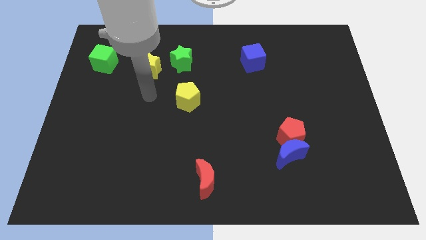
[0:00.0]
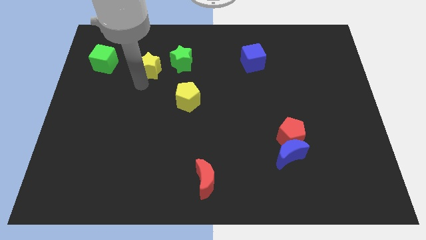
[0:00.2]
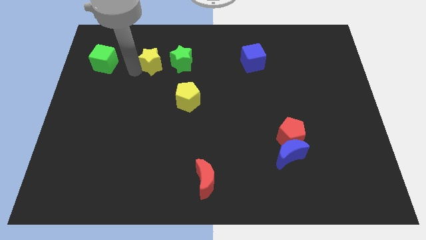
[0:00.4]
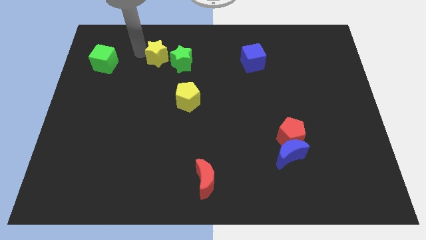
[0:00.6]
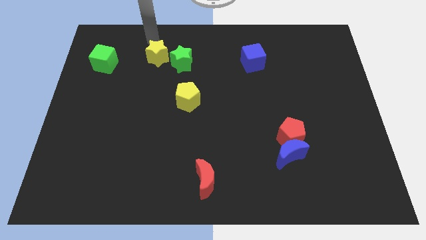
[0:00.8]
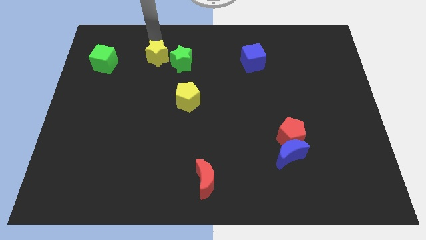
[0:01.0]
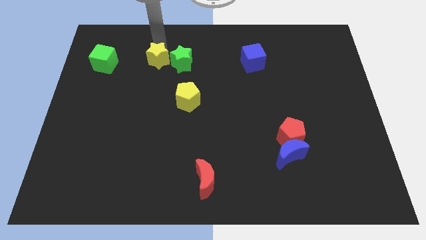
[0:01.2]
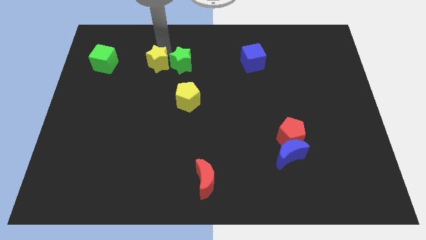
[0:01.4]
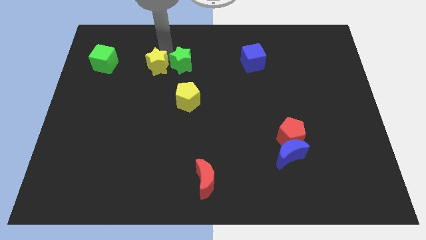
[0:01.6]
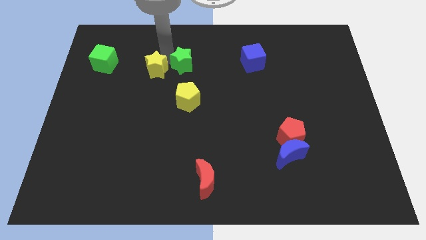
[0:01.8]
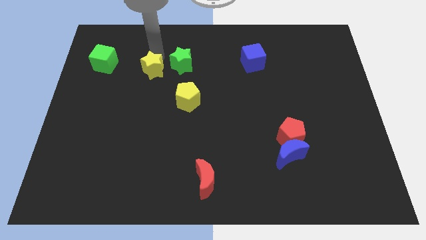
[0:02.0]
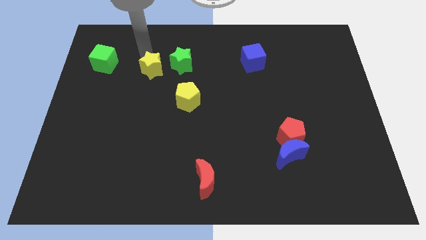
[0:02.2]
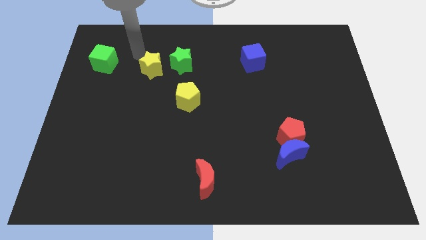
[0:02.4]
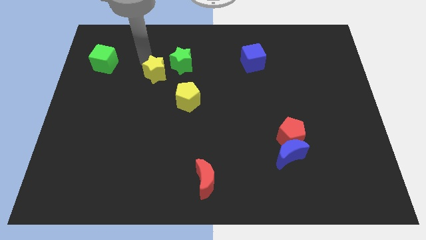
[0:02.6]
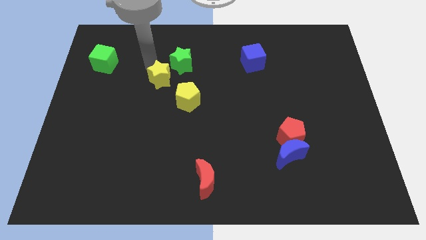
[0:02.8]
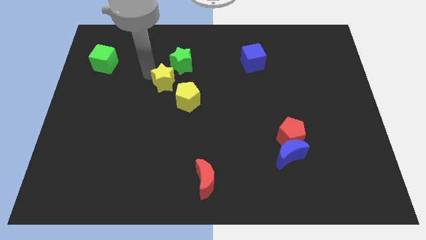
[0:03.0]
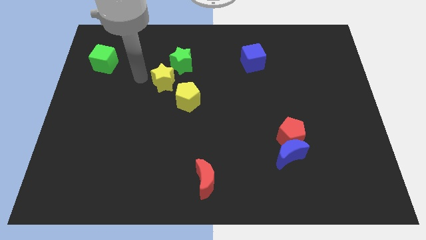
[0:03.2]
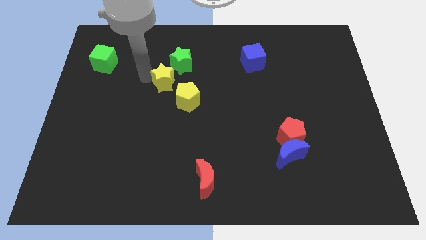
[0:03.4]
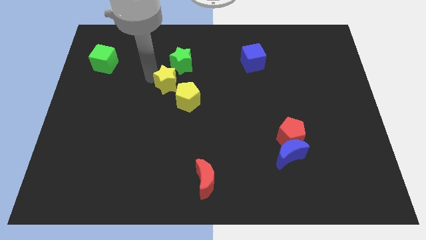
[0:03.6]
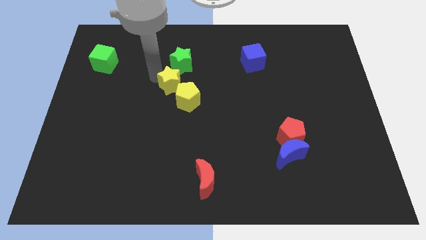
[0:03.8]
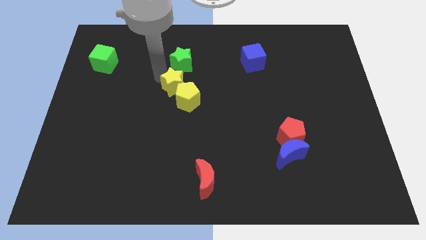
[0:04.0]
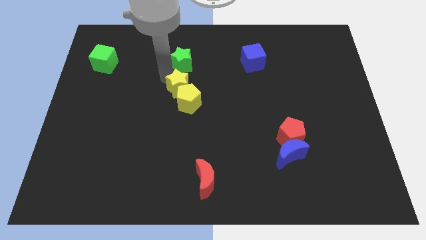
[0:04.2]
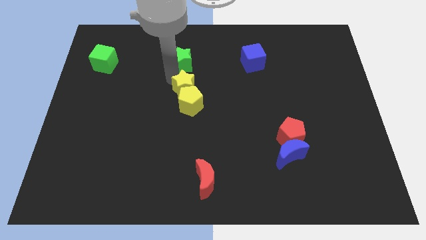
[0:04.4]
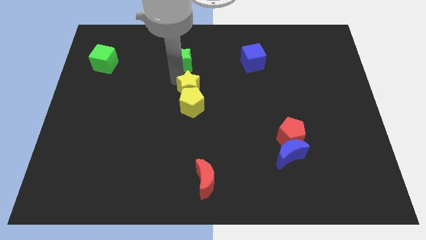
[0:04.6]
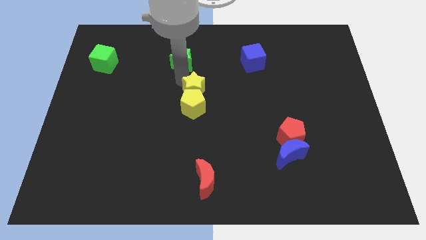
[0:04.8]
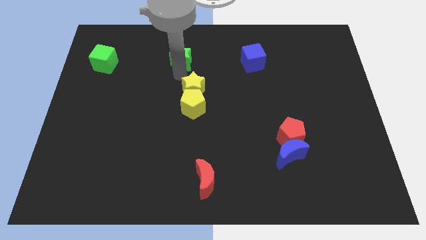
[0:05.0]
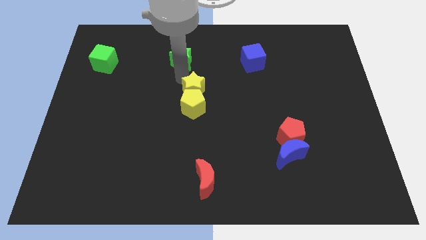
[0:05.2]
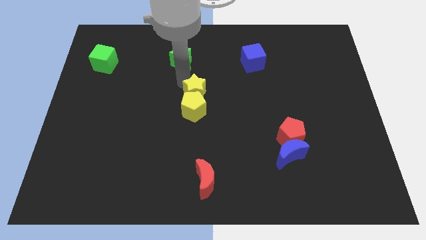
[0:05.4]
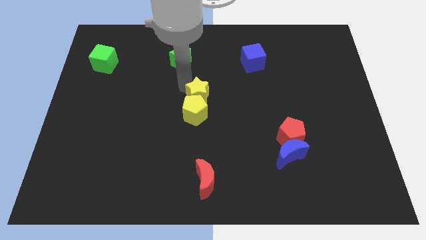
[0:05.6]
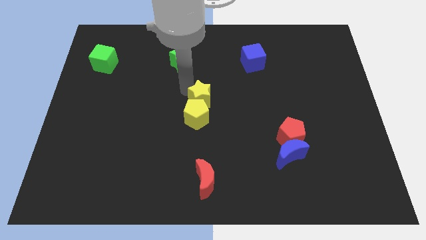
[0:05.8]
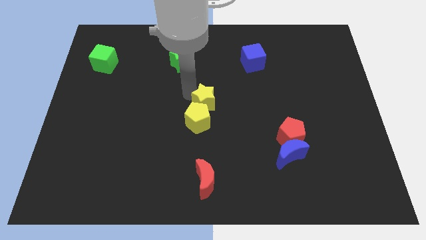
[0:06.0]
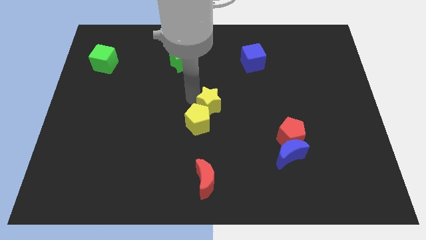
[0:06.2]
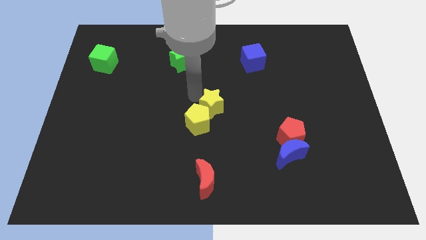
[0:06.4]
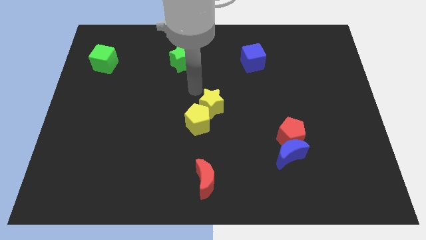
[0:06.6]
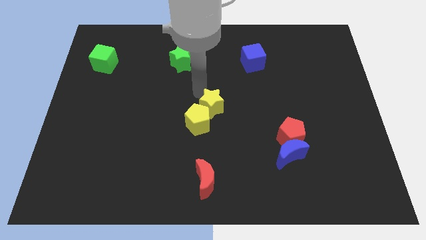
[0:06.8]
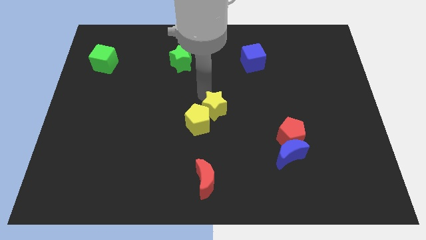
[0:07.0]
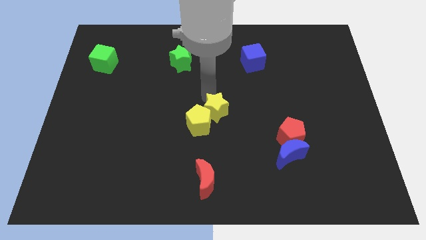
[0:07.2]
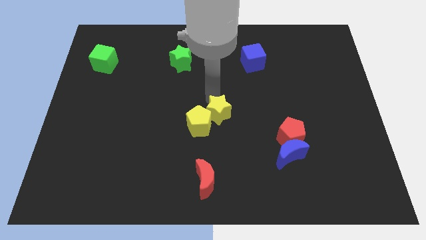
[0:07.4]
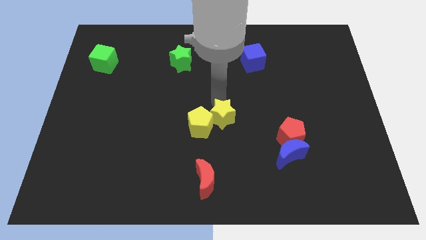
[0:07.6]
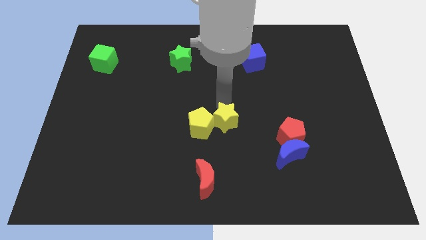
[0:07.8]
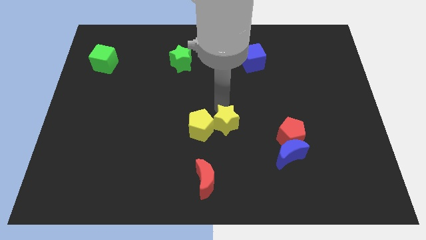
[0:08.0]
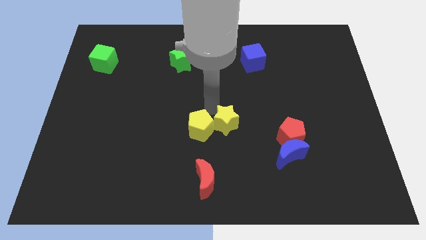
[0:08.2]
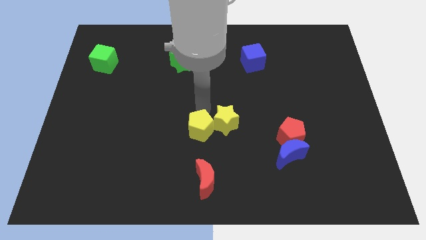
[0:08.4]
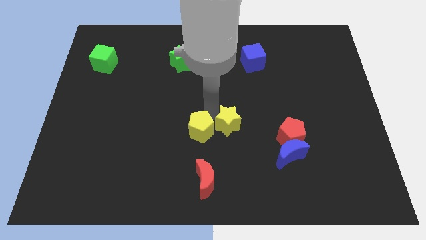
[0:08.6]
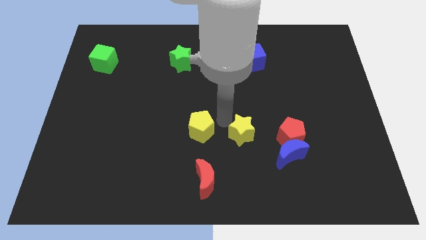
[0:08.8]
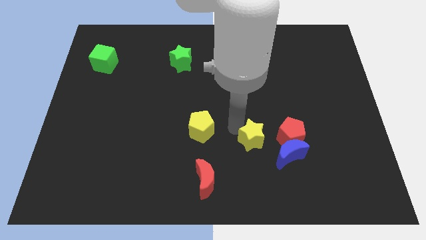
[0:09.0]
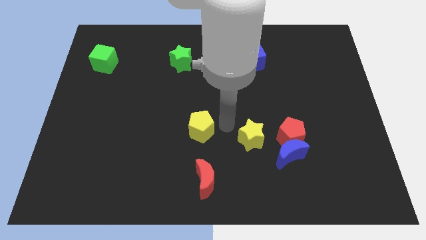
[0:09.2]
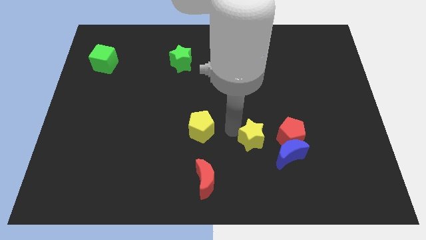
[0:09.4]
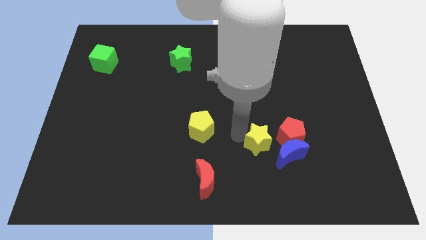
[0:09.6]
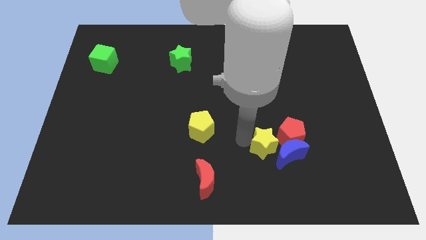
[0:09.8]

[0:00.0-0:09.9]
put the yellow star next to the blue moon

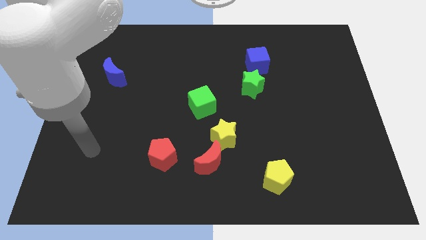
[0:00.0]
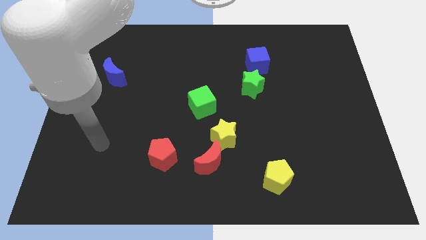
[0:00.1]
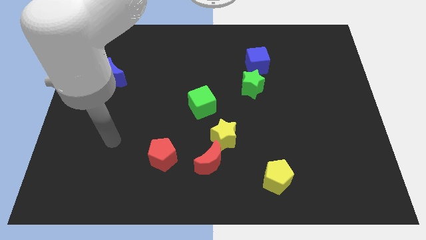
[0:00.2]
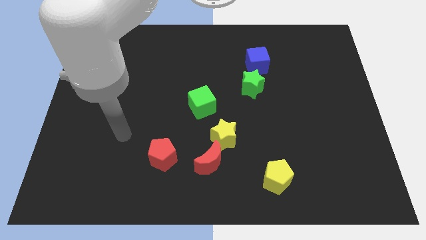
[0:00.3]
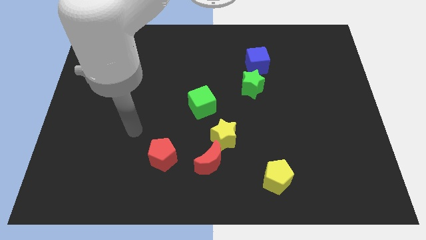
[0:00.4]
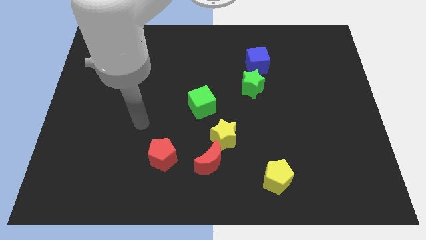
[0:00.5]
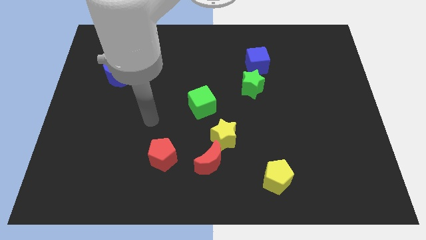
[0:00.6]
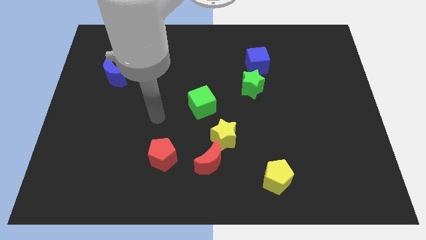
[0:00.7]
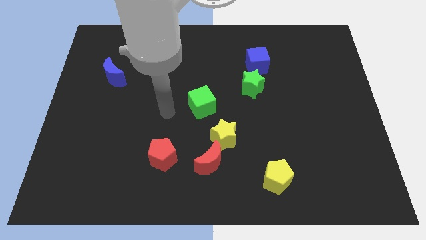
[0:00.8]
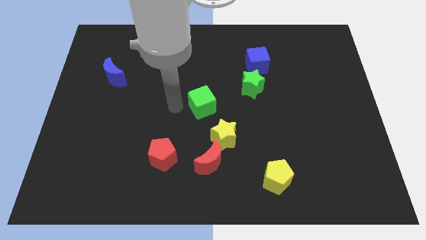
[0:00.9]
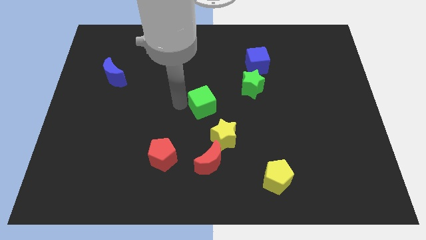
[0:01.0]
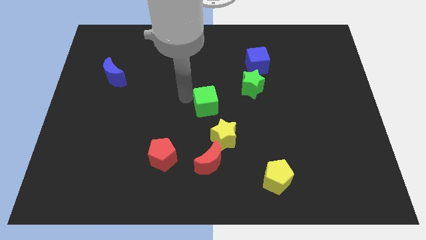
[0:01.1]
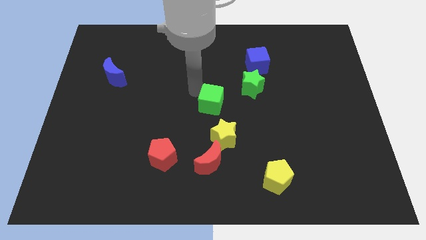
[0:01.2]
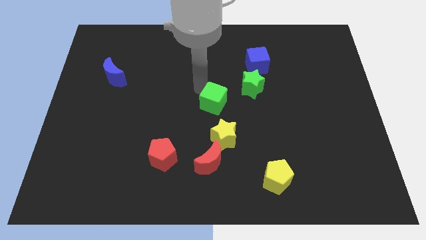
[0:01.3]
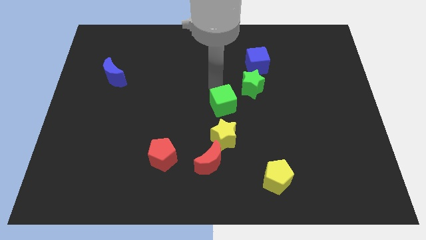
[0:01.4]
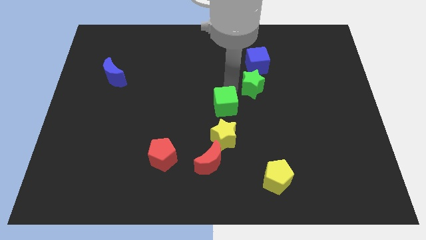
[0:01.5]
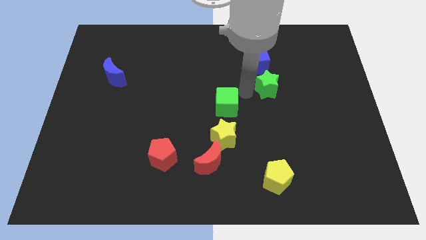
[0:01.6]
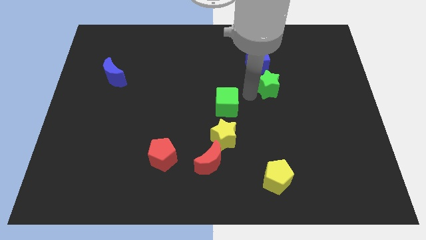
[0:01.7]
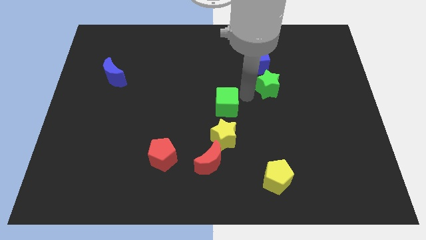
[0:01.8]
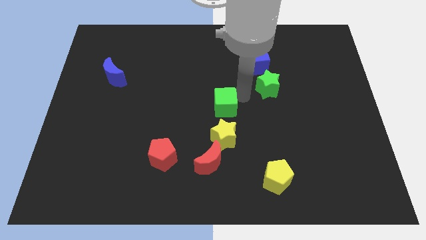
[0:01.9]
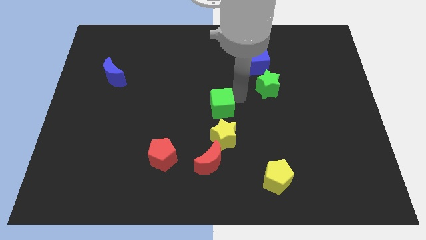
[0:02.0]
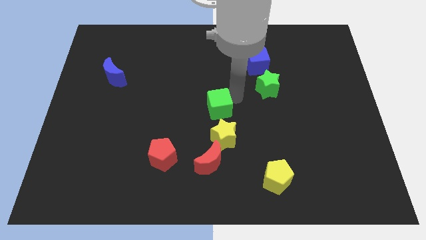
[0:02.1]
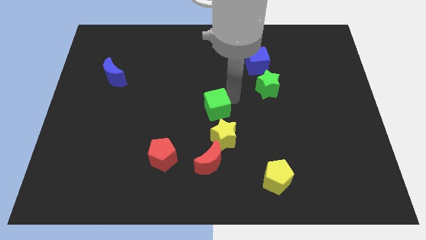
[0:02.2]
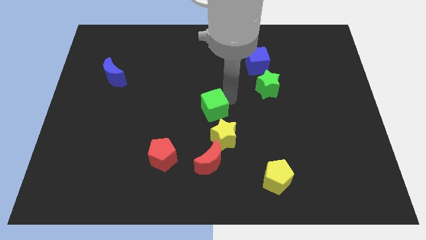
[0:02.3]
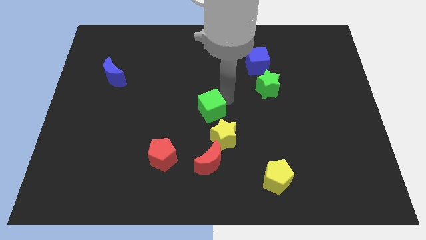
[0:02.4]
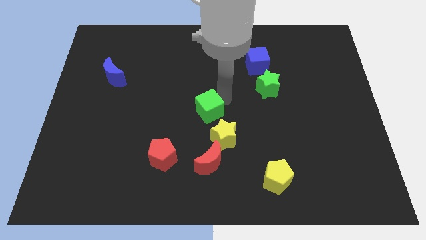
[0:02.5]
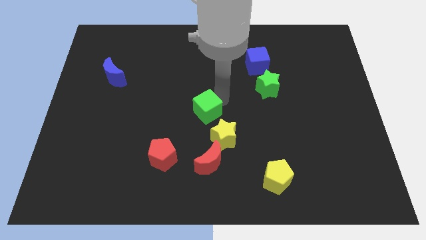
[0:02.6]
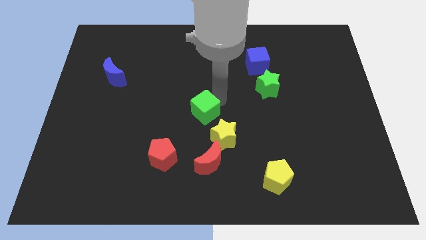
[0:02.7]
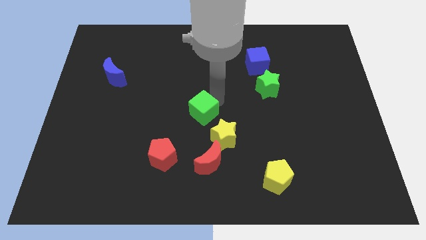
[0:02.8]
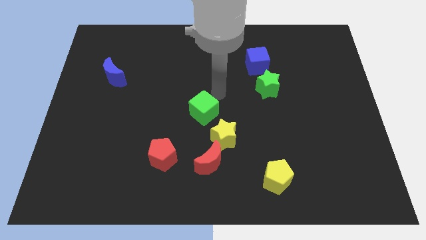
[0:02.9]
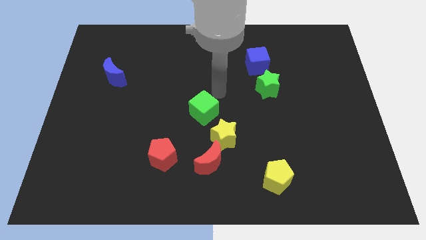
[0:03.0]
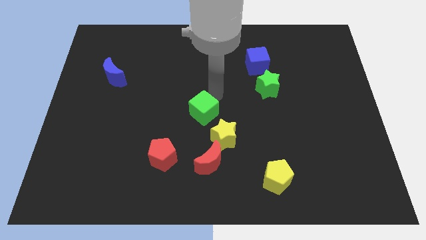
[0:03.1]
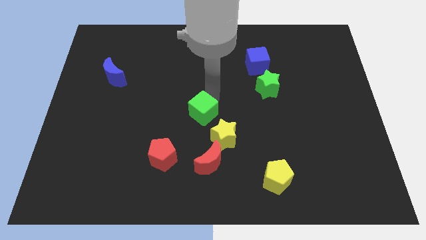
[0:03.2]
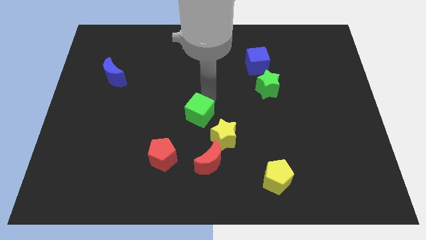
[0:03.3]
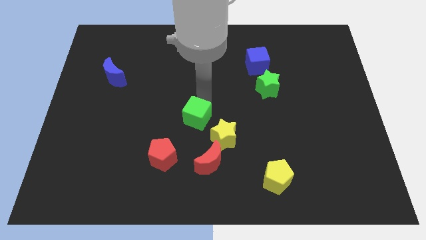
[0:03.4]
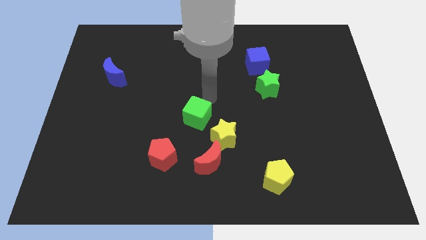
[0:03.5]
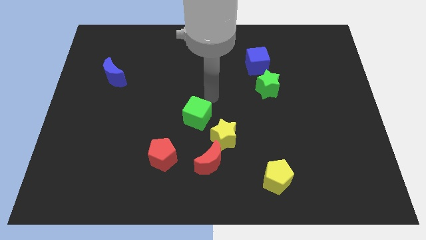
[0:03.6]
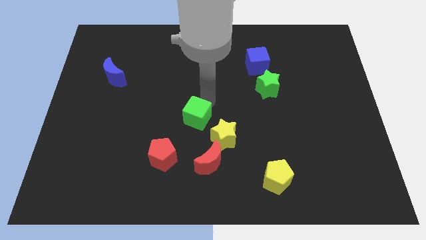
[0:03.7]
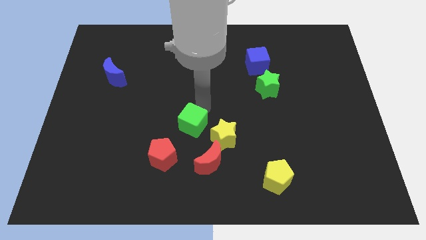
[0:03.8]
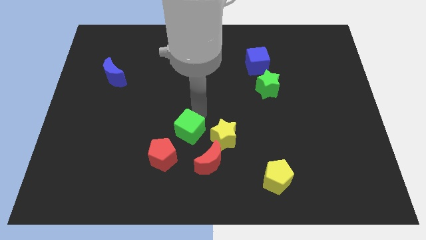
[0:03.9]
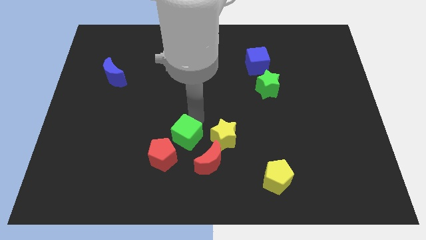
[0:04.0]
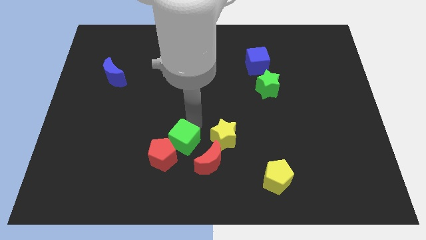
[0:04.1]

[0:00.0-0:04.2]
put the green cube to the red pentagon
